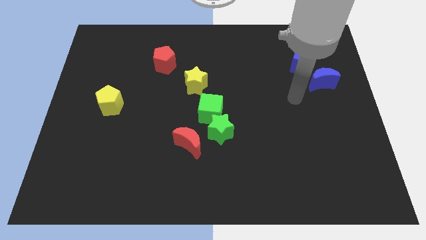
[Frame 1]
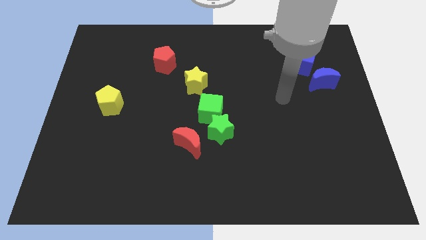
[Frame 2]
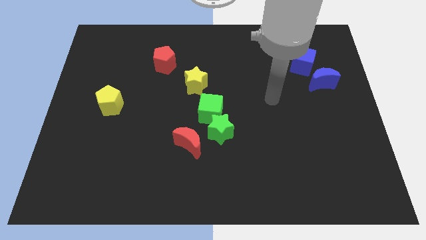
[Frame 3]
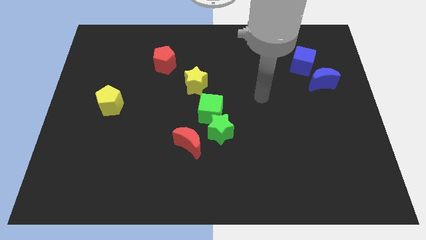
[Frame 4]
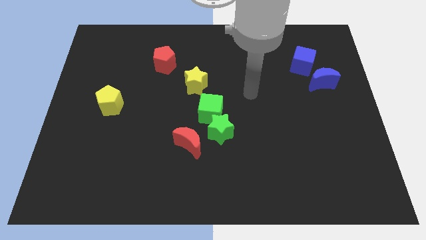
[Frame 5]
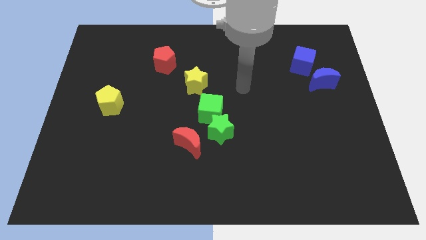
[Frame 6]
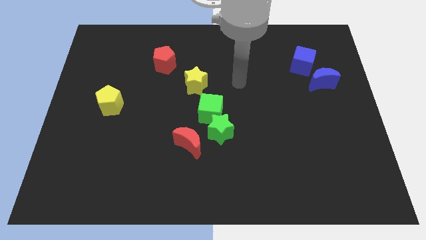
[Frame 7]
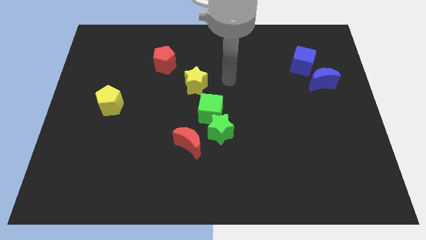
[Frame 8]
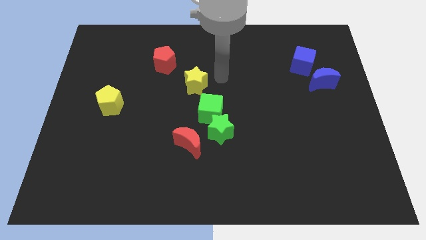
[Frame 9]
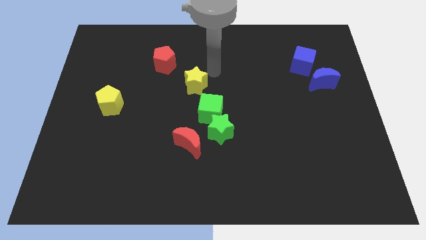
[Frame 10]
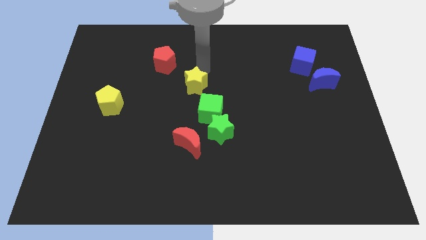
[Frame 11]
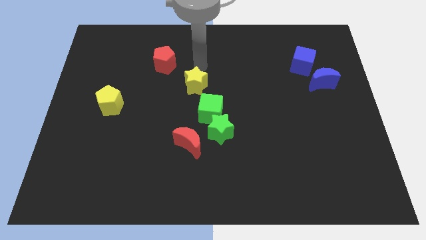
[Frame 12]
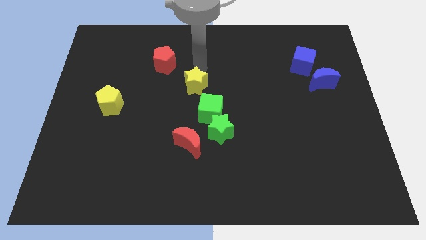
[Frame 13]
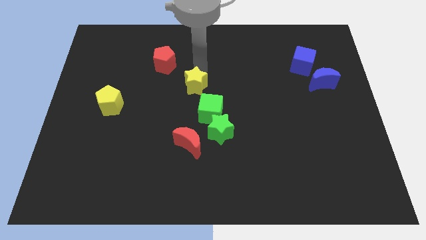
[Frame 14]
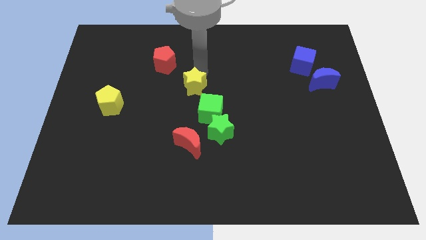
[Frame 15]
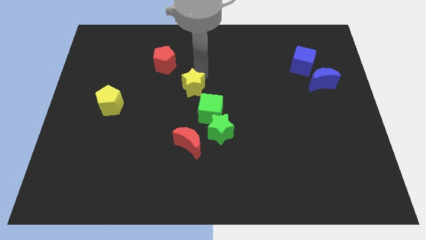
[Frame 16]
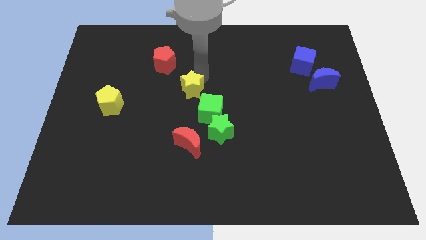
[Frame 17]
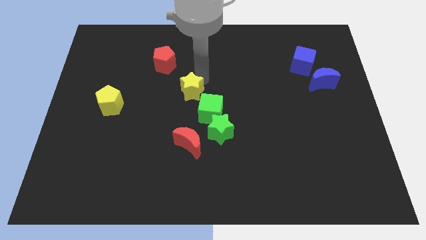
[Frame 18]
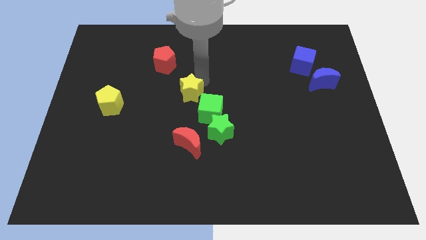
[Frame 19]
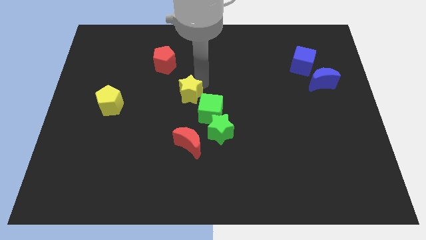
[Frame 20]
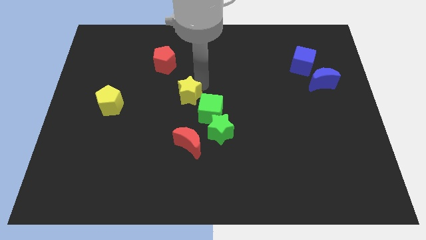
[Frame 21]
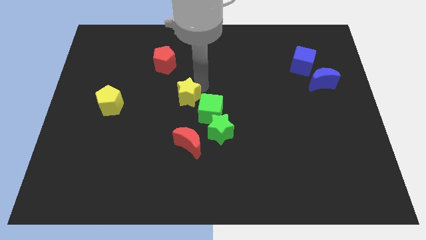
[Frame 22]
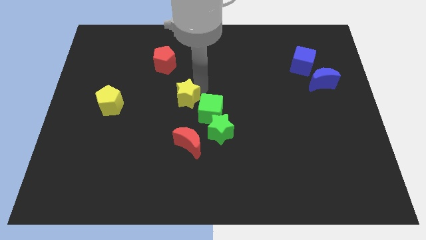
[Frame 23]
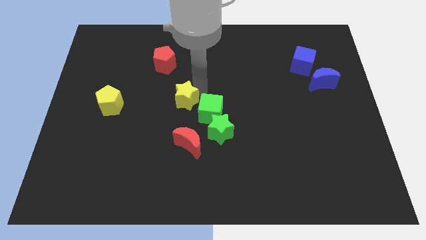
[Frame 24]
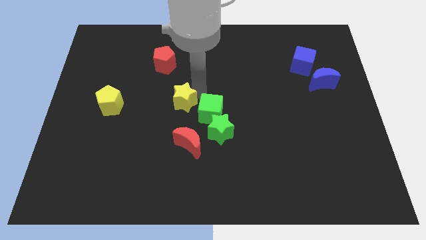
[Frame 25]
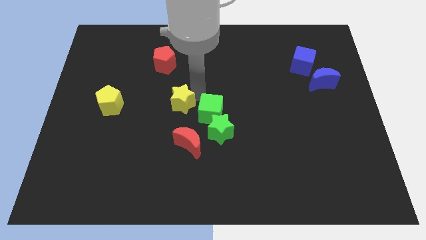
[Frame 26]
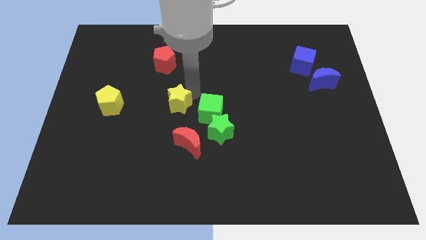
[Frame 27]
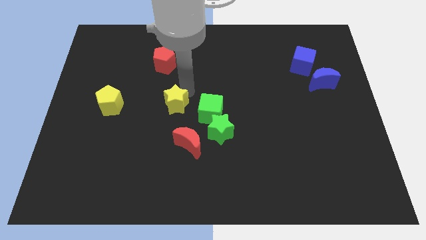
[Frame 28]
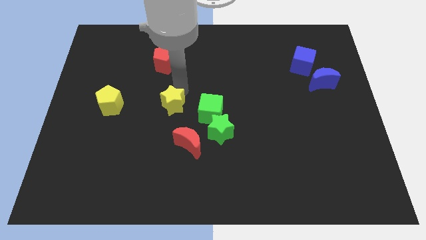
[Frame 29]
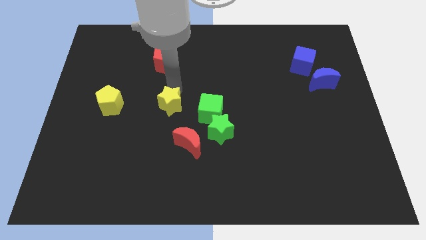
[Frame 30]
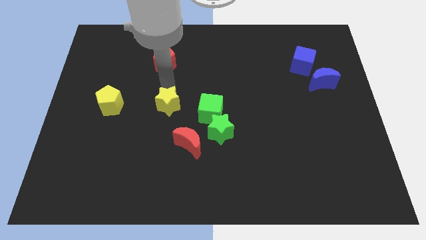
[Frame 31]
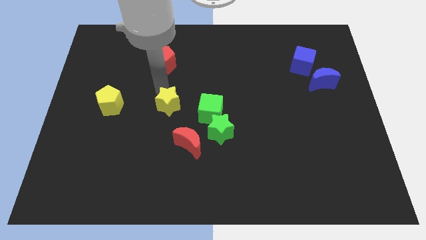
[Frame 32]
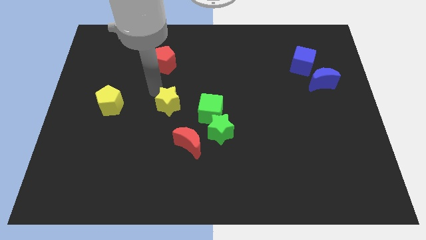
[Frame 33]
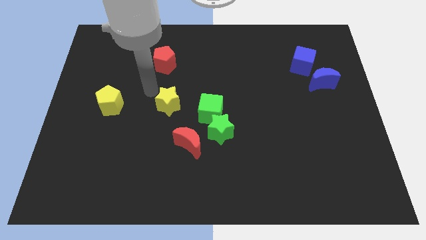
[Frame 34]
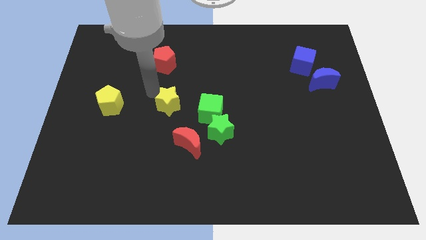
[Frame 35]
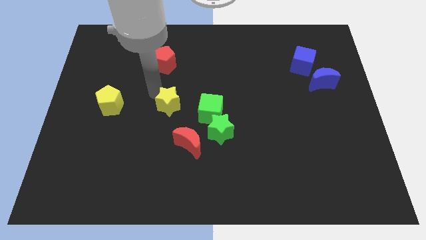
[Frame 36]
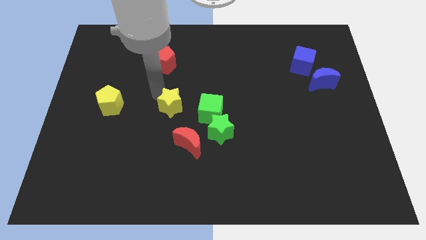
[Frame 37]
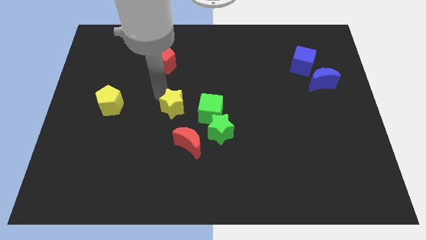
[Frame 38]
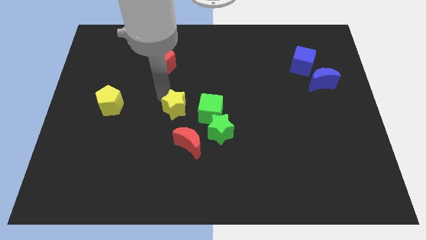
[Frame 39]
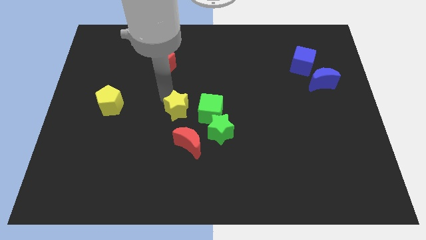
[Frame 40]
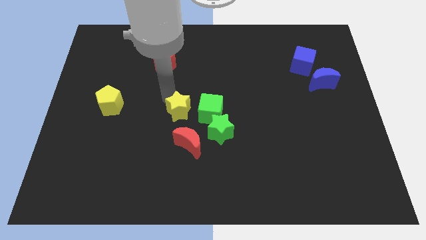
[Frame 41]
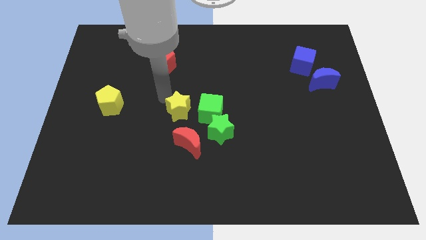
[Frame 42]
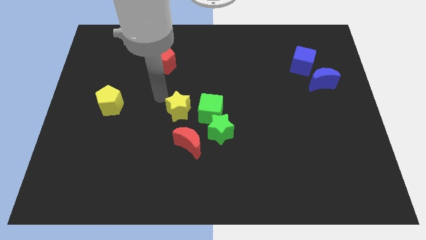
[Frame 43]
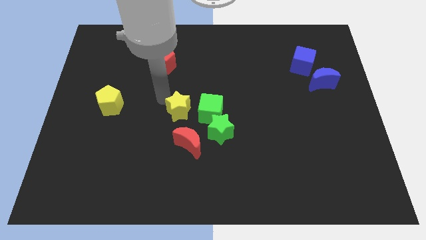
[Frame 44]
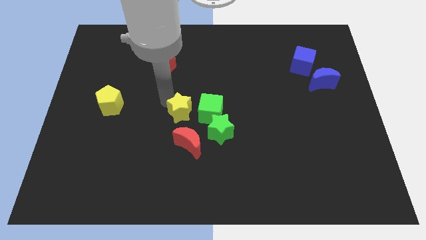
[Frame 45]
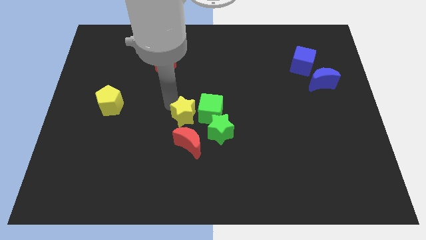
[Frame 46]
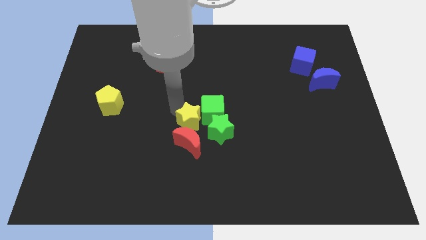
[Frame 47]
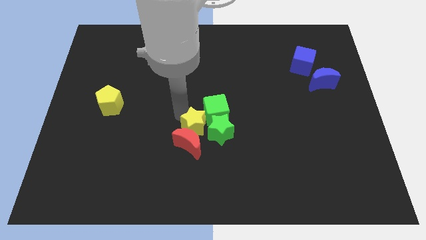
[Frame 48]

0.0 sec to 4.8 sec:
slide the yellow star to the green star

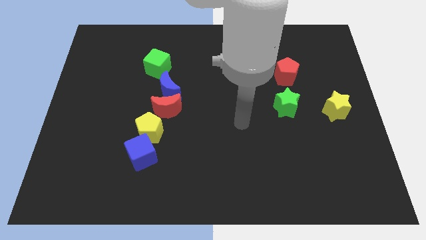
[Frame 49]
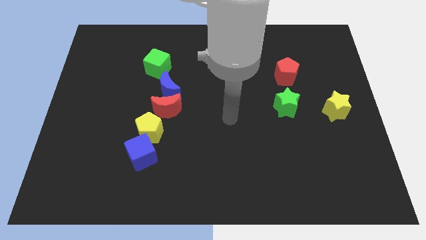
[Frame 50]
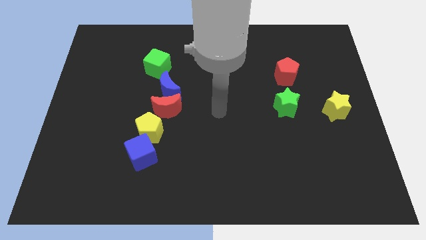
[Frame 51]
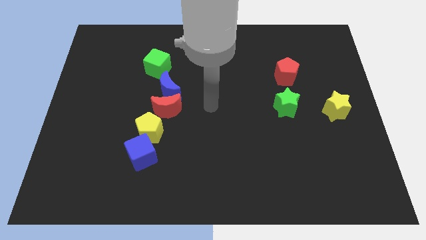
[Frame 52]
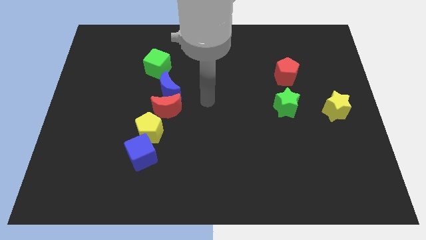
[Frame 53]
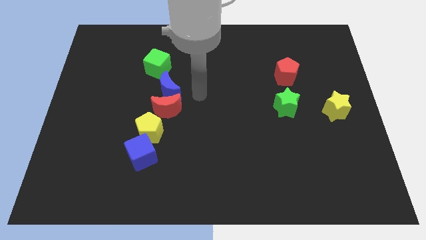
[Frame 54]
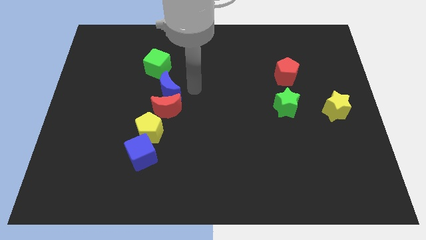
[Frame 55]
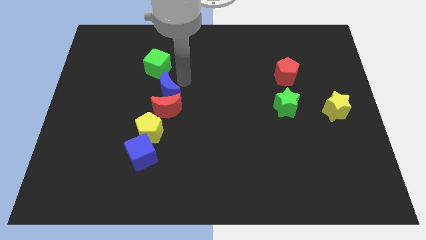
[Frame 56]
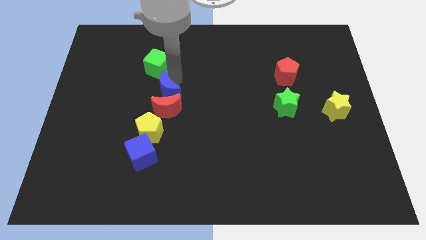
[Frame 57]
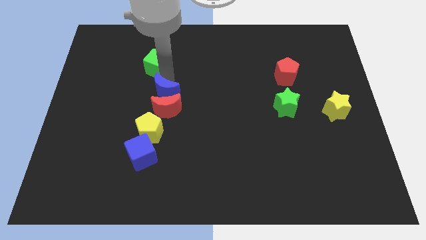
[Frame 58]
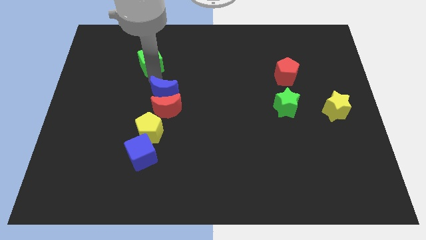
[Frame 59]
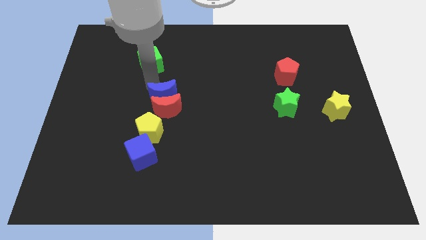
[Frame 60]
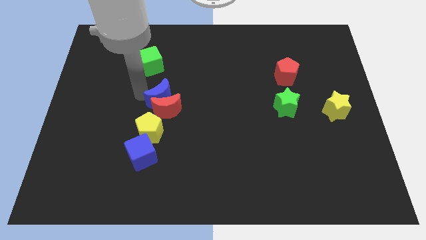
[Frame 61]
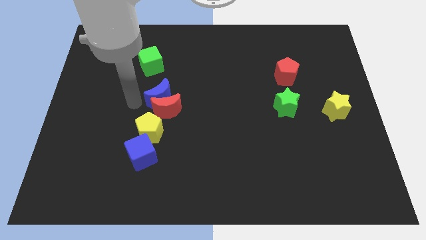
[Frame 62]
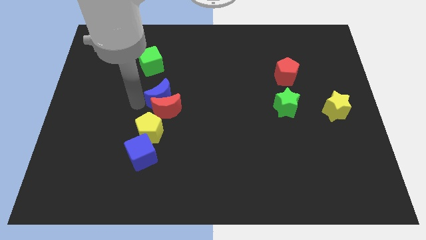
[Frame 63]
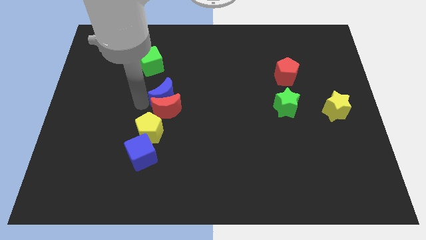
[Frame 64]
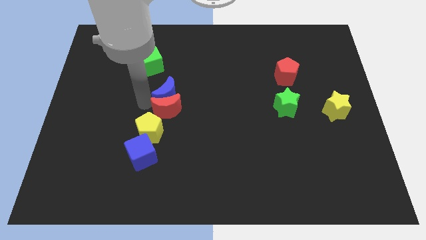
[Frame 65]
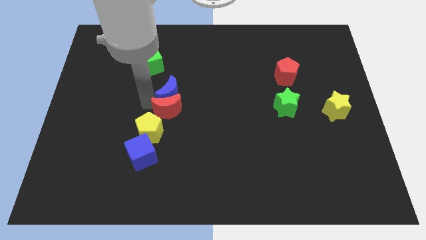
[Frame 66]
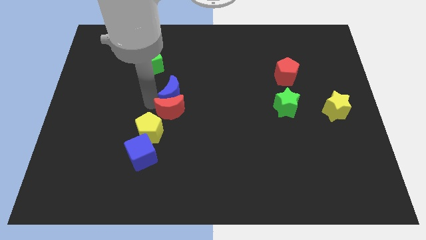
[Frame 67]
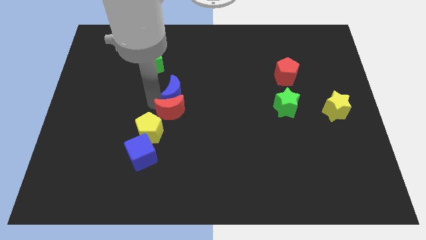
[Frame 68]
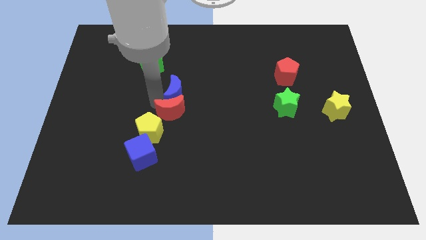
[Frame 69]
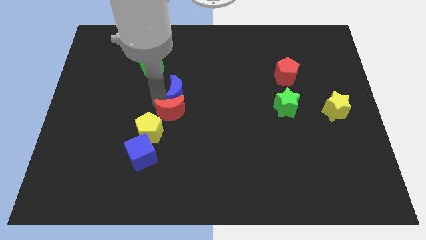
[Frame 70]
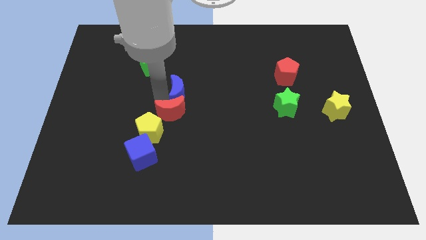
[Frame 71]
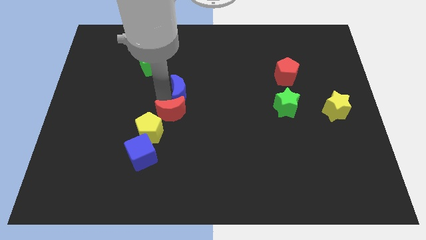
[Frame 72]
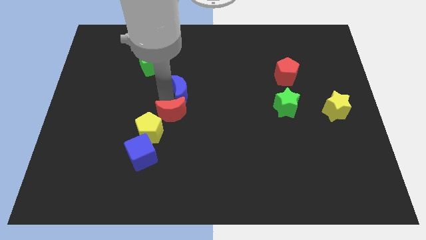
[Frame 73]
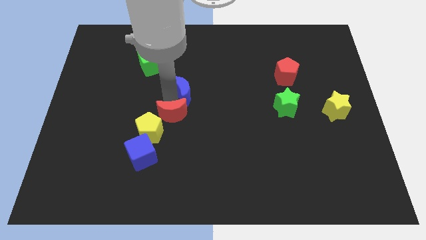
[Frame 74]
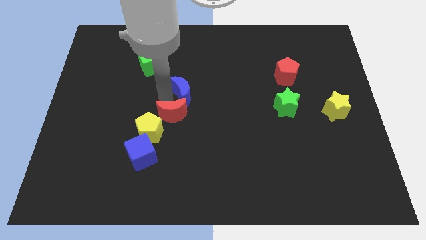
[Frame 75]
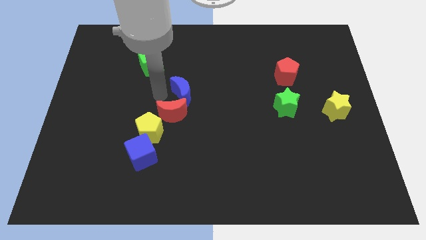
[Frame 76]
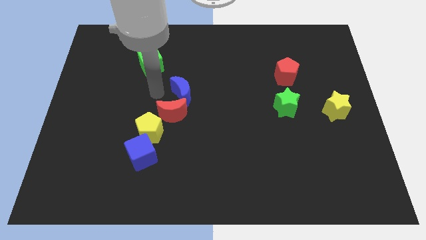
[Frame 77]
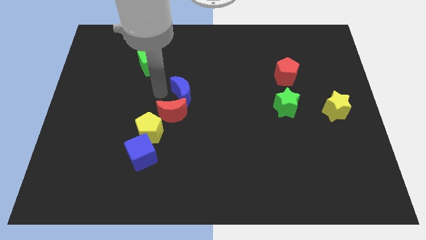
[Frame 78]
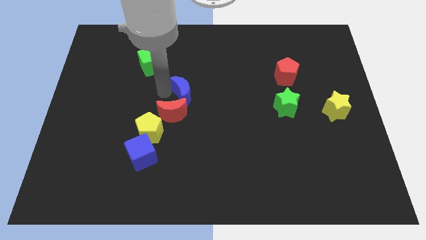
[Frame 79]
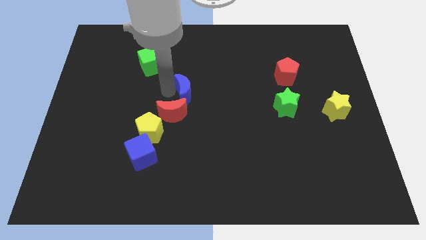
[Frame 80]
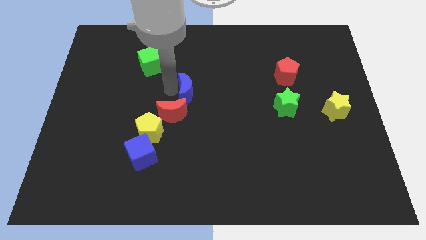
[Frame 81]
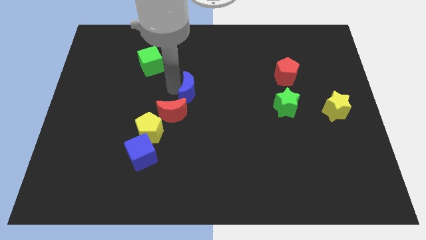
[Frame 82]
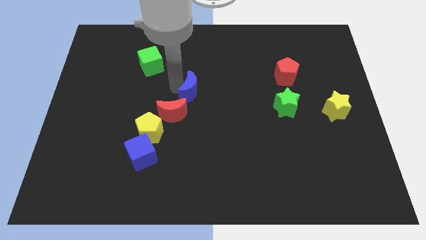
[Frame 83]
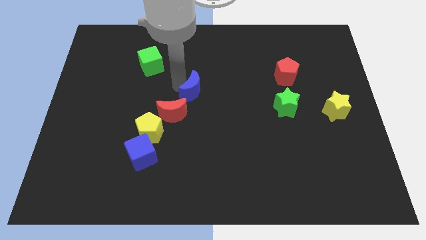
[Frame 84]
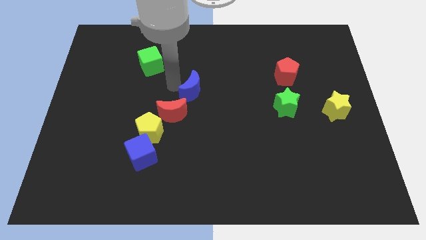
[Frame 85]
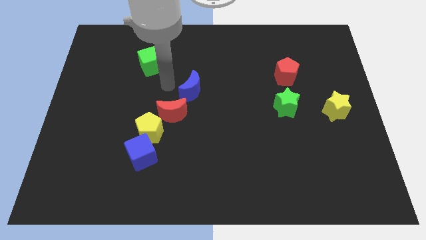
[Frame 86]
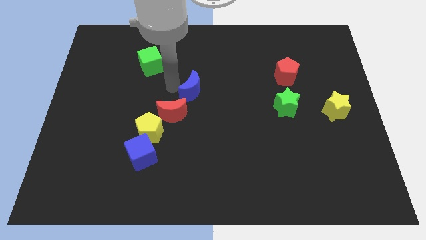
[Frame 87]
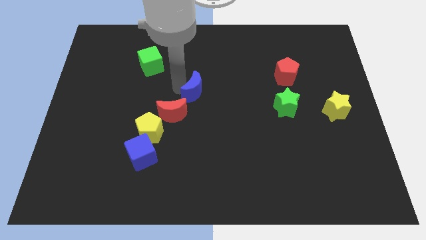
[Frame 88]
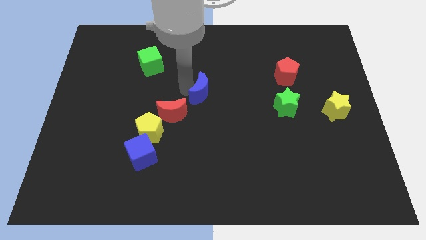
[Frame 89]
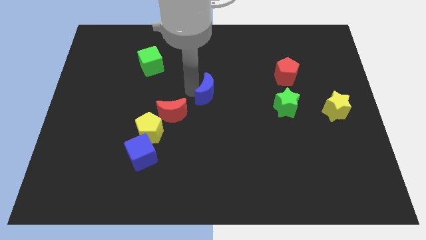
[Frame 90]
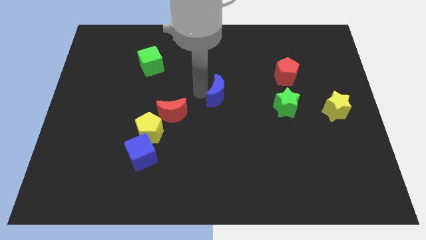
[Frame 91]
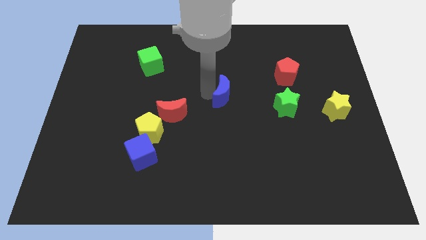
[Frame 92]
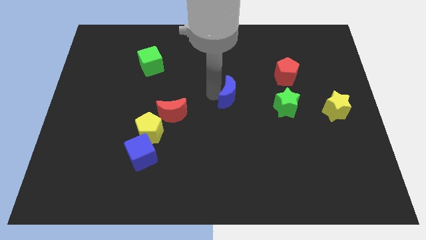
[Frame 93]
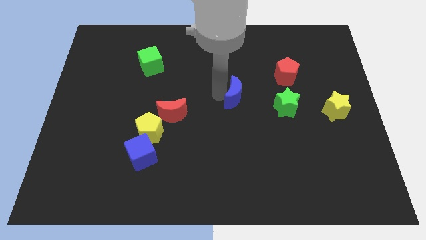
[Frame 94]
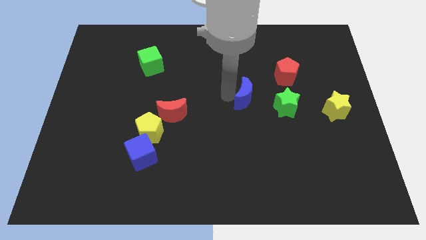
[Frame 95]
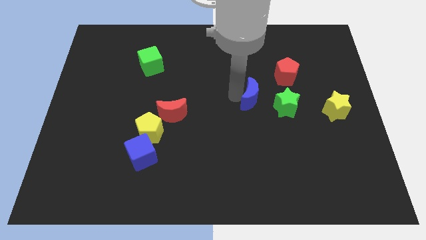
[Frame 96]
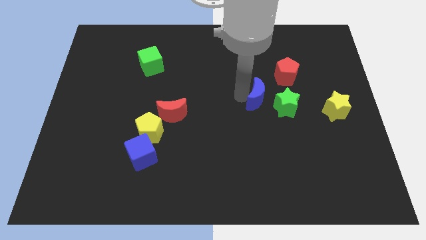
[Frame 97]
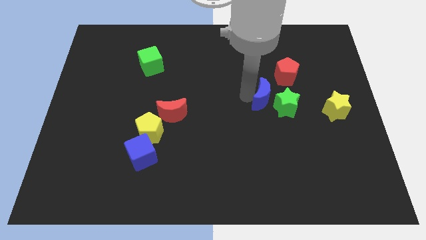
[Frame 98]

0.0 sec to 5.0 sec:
move the blue moon to the green star
